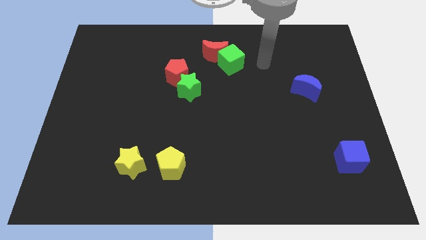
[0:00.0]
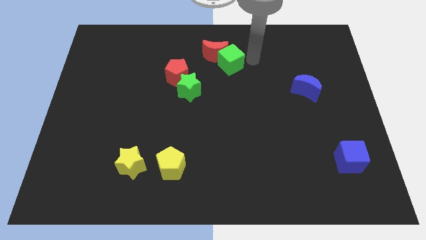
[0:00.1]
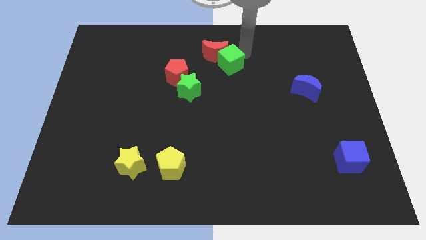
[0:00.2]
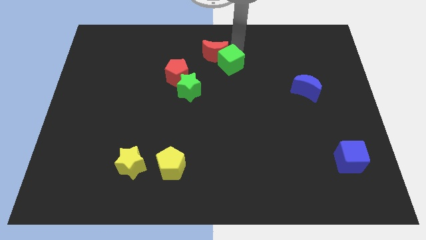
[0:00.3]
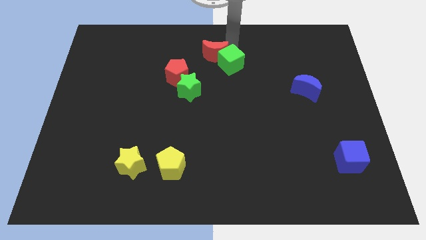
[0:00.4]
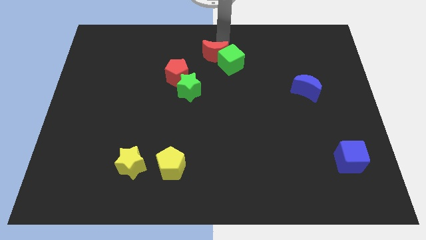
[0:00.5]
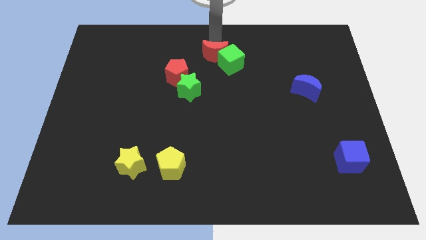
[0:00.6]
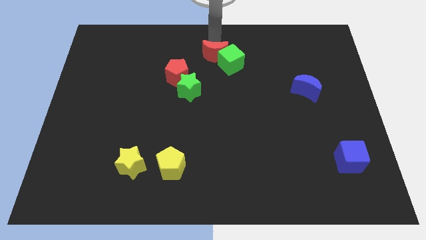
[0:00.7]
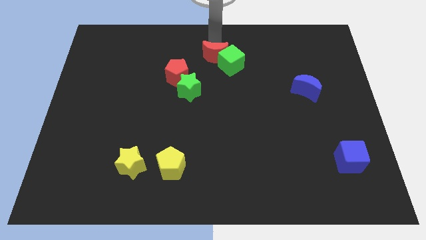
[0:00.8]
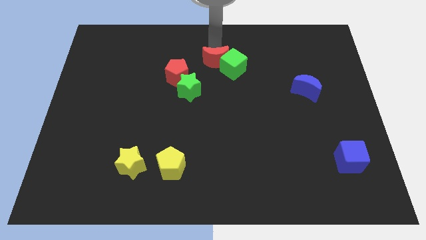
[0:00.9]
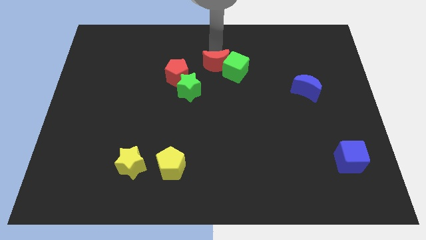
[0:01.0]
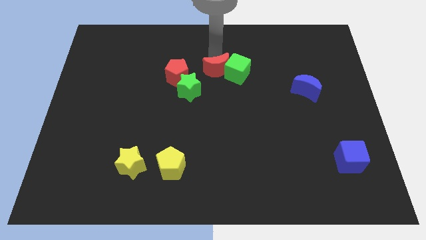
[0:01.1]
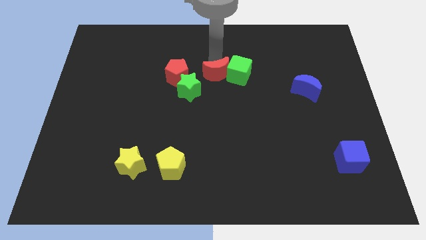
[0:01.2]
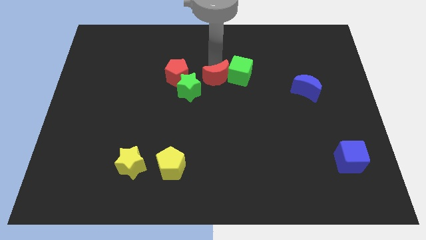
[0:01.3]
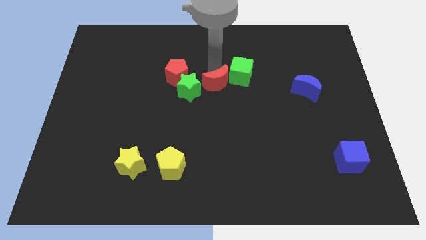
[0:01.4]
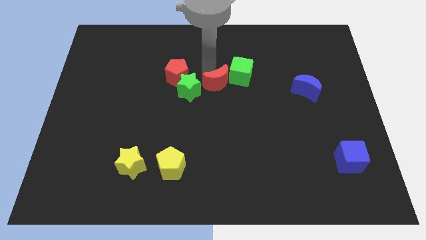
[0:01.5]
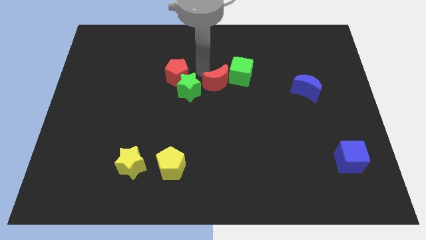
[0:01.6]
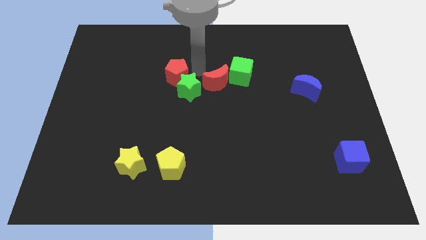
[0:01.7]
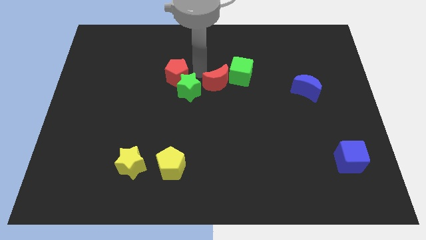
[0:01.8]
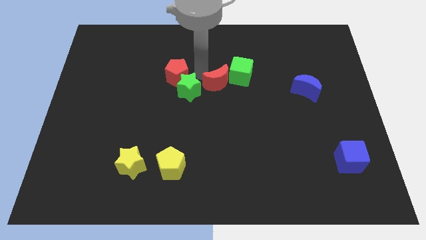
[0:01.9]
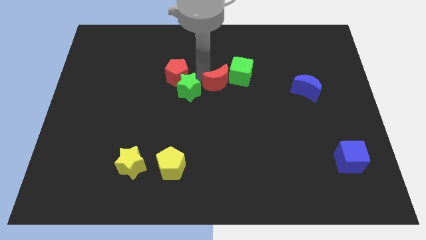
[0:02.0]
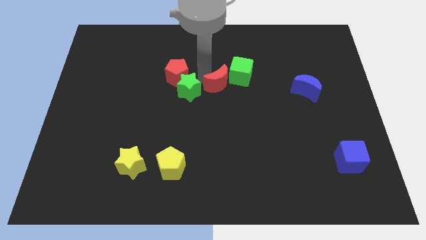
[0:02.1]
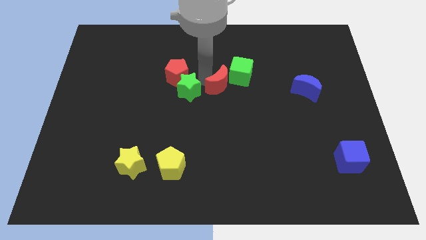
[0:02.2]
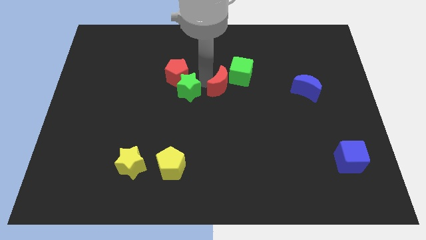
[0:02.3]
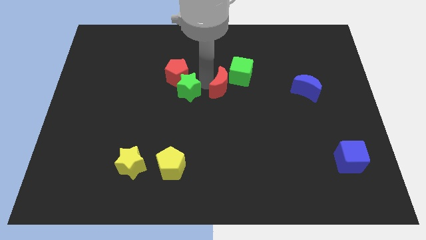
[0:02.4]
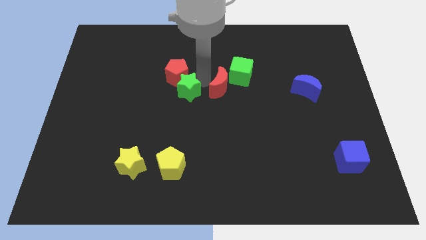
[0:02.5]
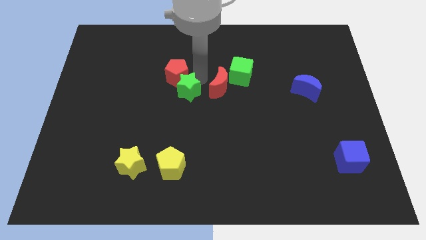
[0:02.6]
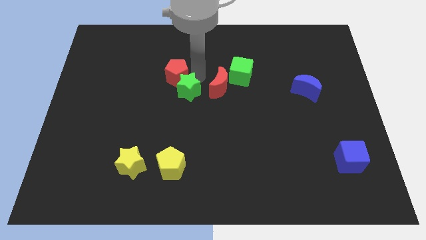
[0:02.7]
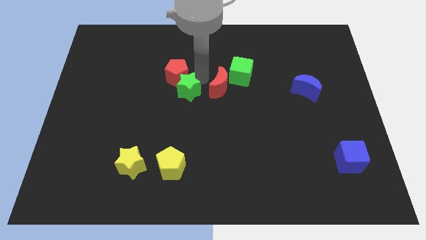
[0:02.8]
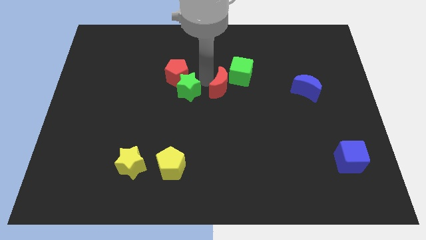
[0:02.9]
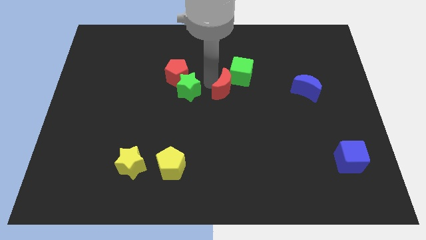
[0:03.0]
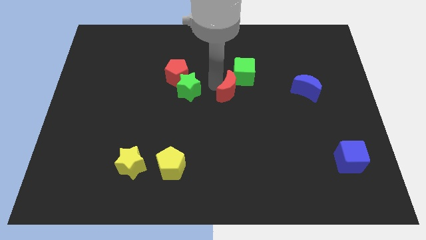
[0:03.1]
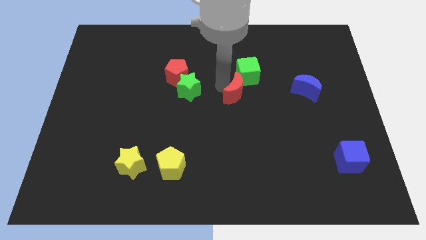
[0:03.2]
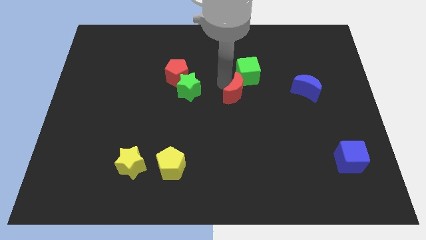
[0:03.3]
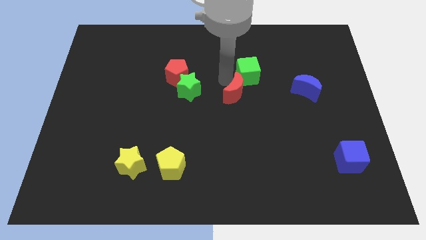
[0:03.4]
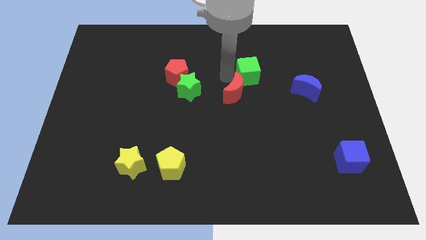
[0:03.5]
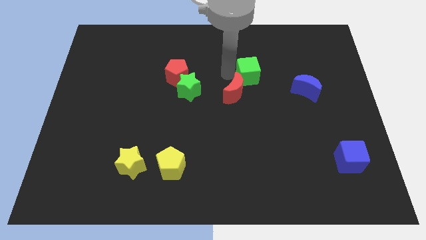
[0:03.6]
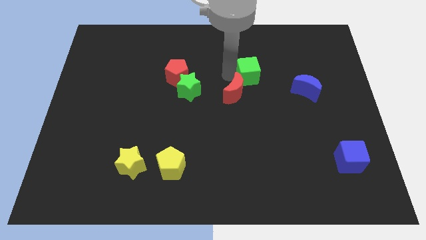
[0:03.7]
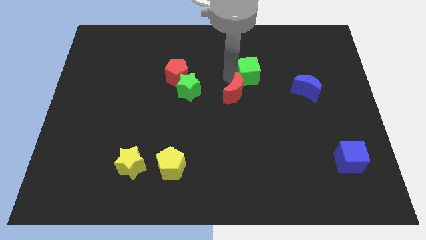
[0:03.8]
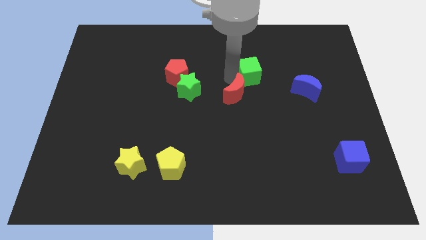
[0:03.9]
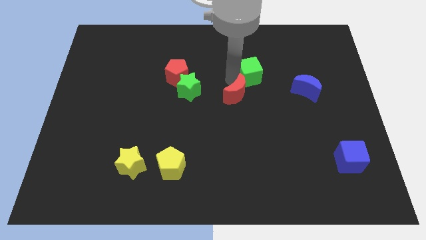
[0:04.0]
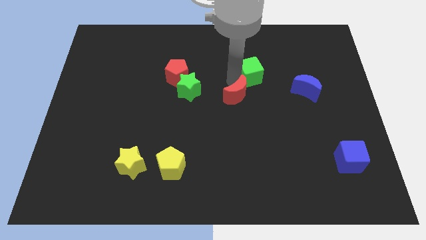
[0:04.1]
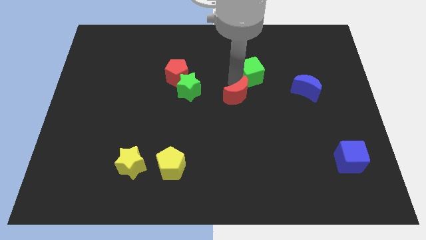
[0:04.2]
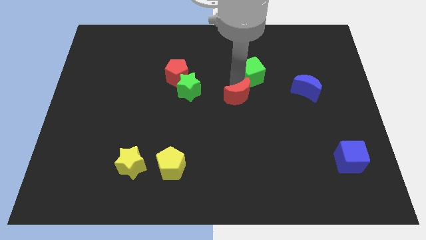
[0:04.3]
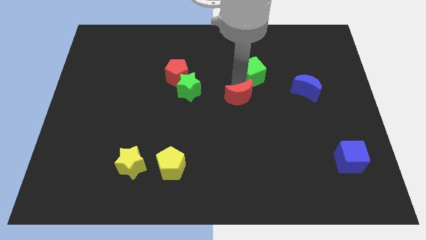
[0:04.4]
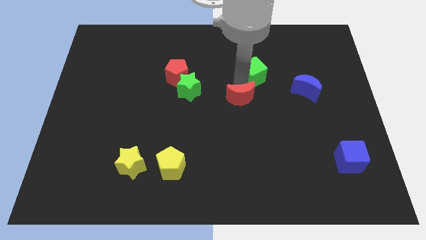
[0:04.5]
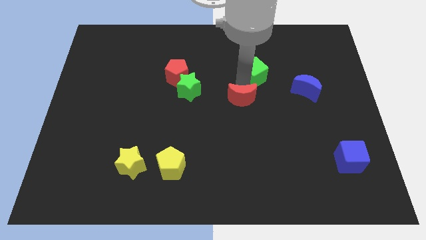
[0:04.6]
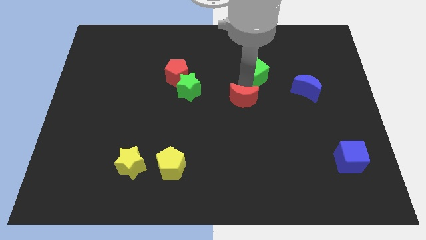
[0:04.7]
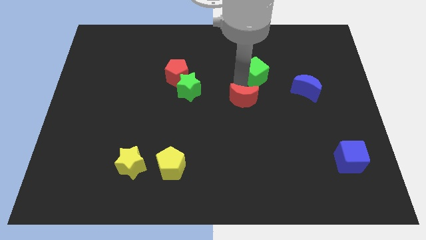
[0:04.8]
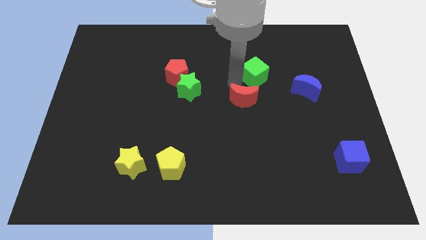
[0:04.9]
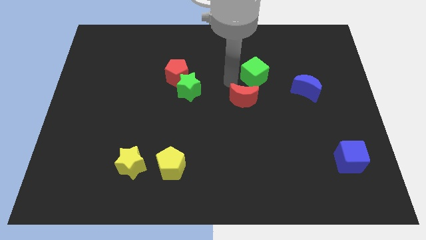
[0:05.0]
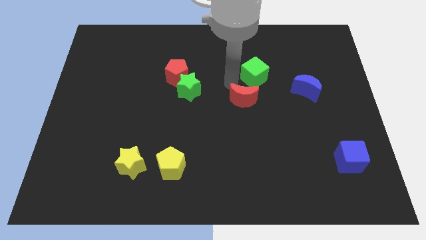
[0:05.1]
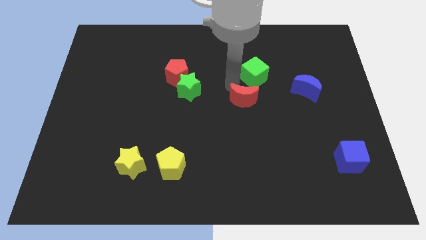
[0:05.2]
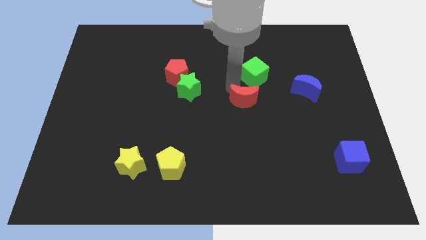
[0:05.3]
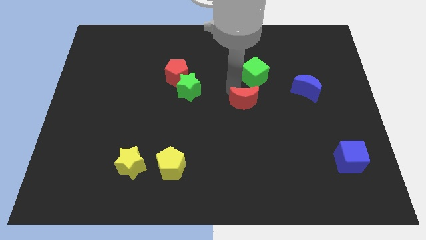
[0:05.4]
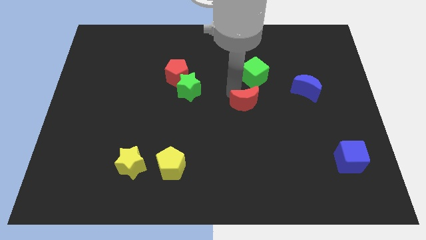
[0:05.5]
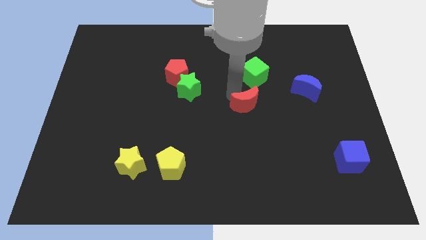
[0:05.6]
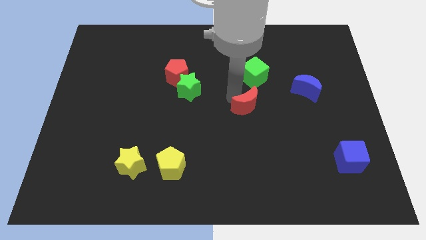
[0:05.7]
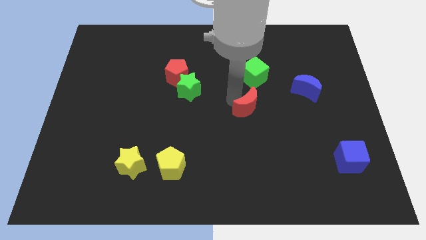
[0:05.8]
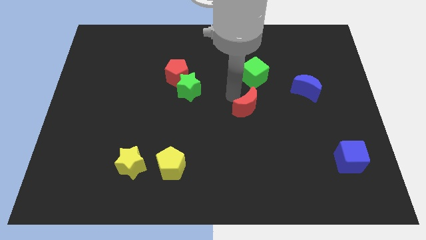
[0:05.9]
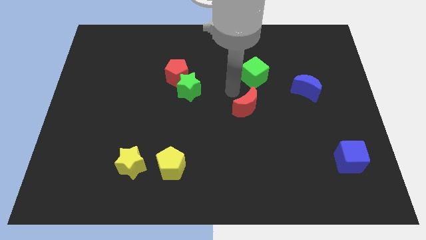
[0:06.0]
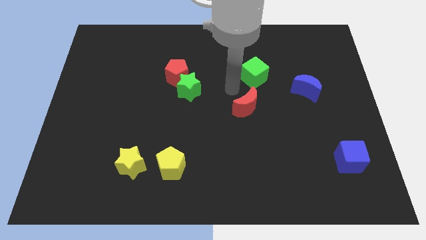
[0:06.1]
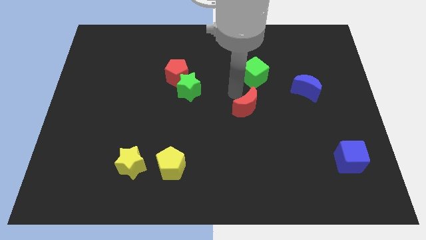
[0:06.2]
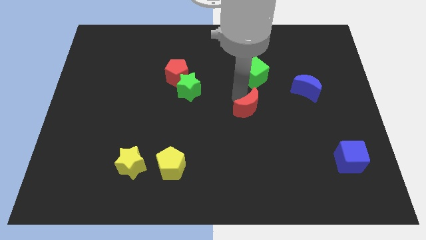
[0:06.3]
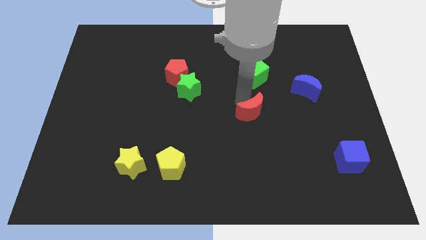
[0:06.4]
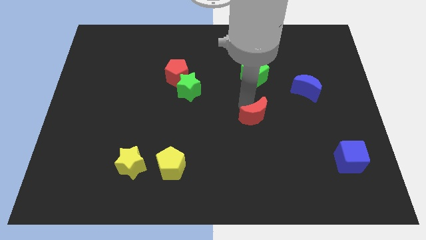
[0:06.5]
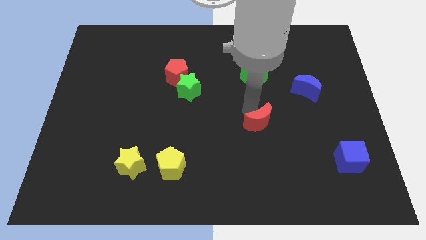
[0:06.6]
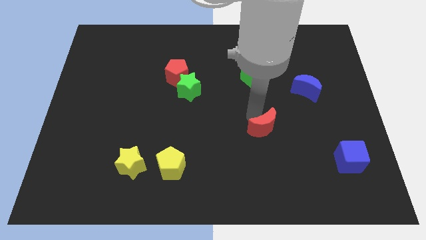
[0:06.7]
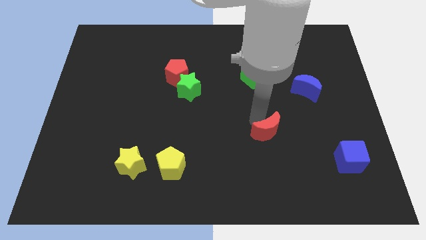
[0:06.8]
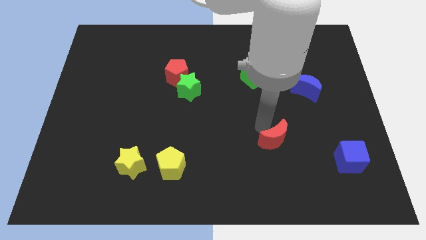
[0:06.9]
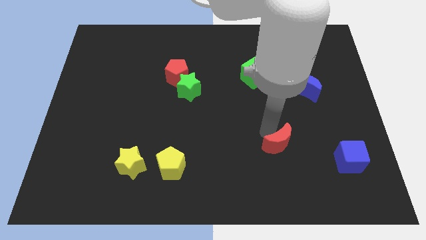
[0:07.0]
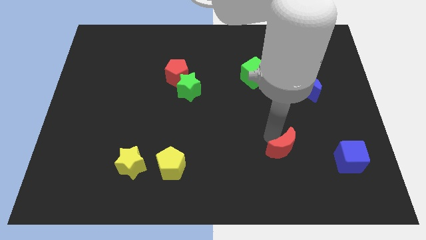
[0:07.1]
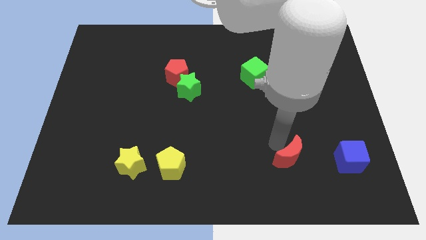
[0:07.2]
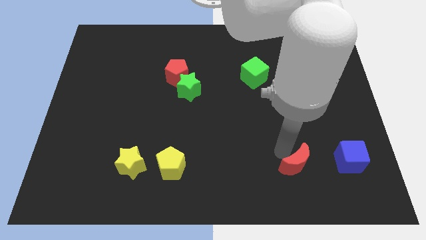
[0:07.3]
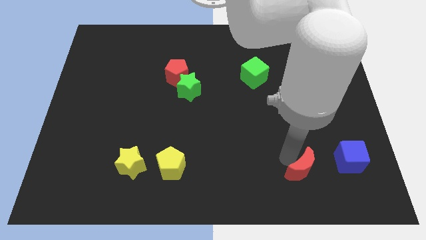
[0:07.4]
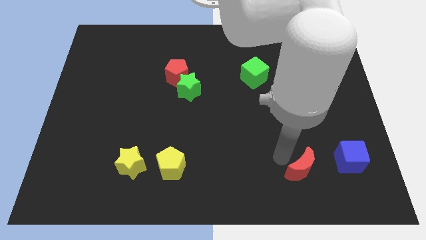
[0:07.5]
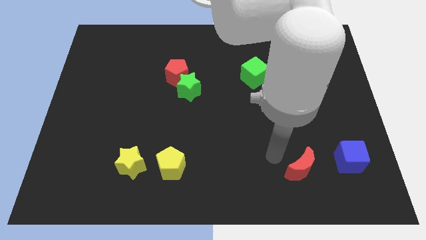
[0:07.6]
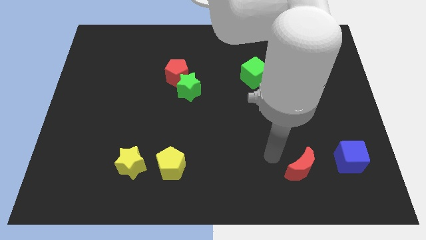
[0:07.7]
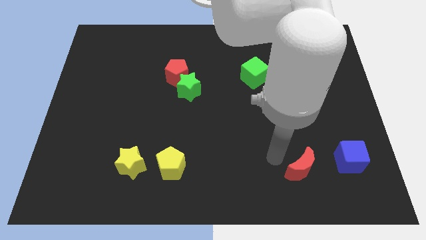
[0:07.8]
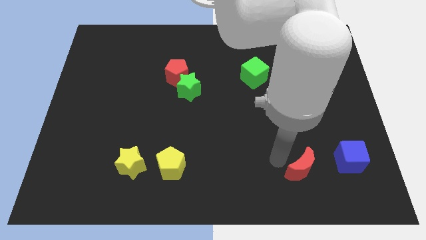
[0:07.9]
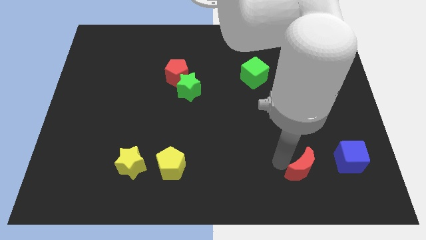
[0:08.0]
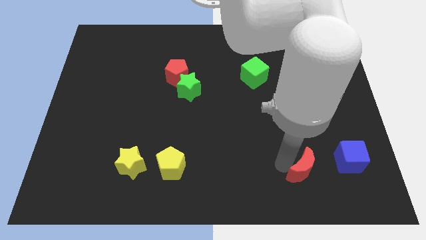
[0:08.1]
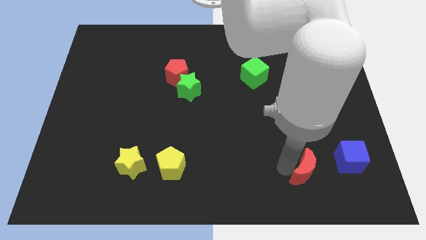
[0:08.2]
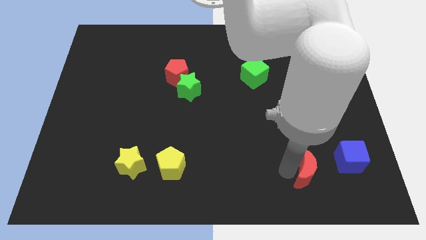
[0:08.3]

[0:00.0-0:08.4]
slide the red moon to the bottom left of the blue cube

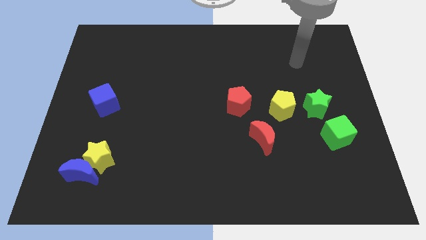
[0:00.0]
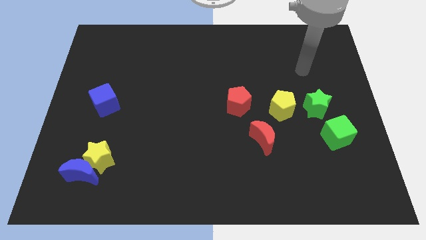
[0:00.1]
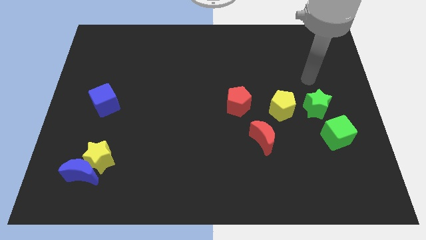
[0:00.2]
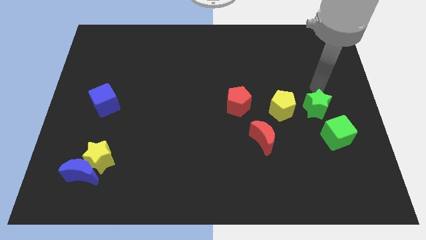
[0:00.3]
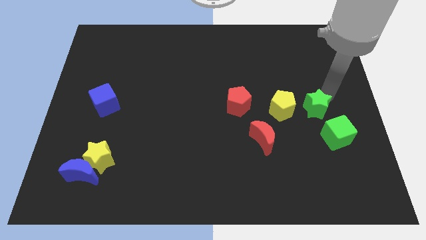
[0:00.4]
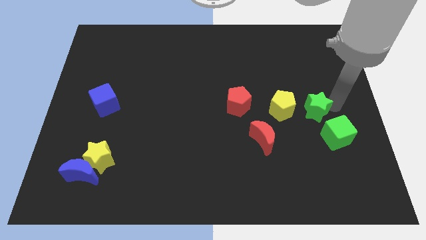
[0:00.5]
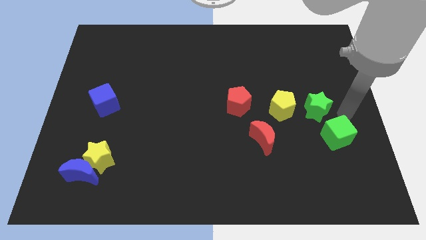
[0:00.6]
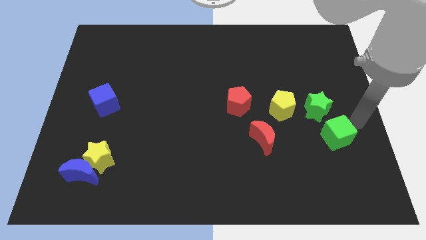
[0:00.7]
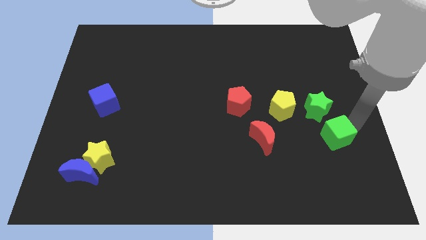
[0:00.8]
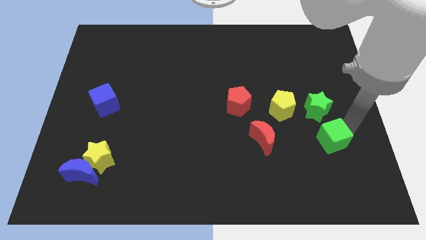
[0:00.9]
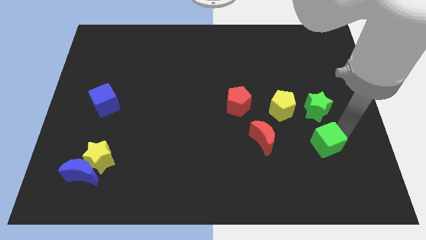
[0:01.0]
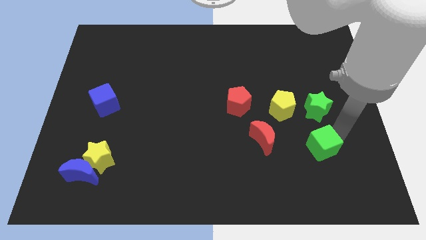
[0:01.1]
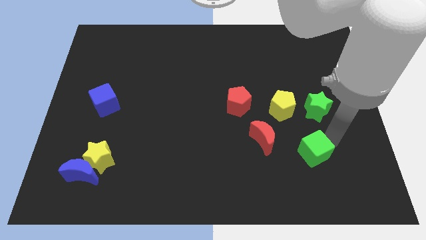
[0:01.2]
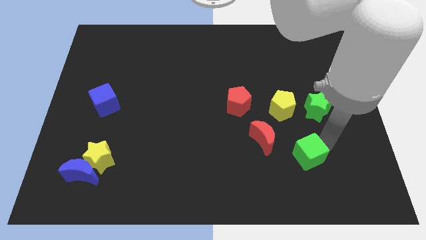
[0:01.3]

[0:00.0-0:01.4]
push the green cube to the bottom right of the red moon
